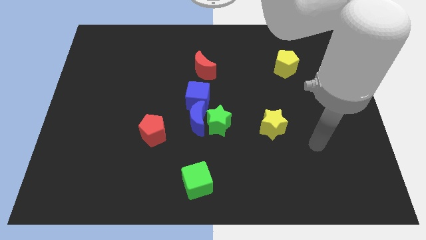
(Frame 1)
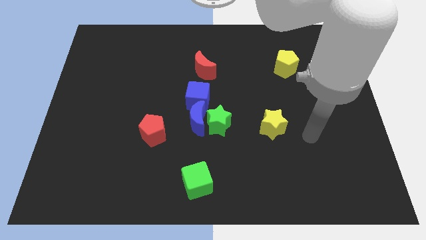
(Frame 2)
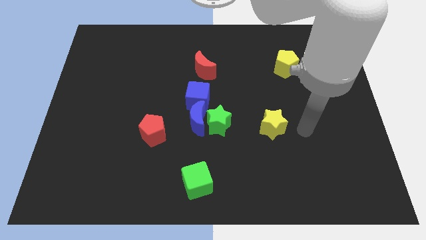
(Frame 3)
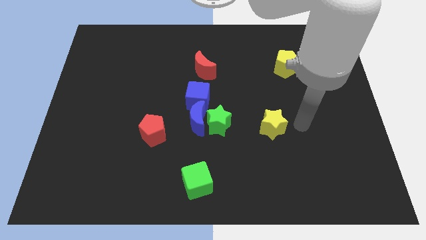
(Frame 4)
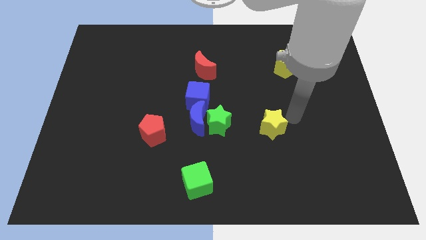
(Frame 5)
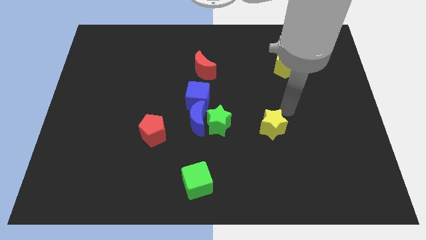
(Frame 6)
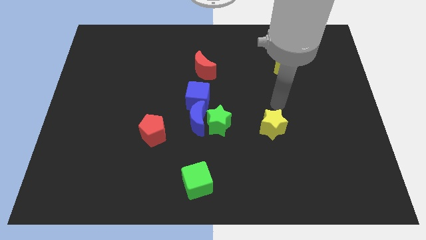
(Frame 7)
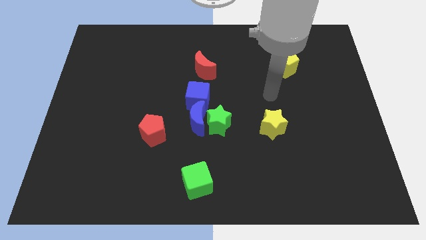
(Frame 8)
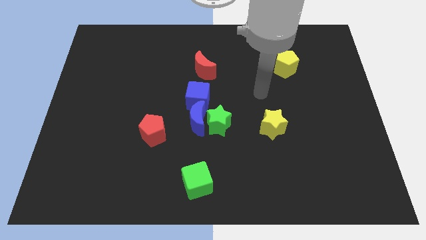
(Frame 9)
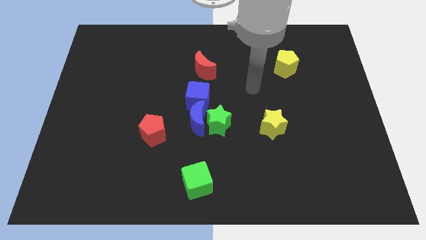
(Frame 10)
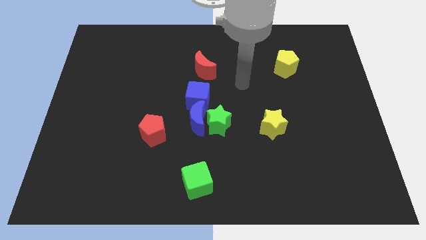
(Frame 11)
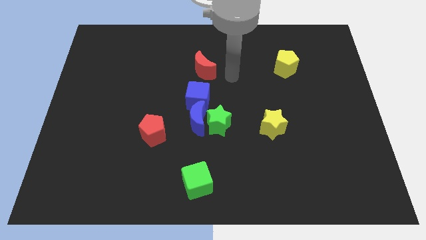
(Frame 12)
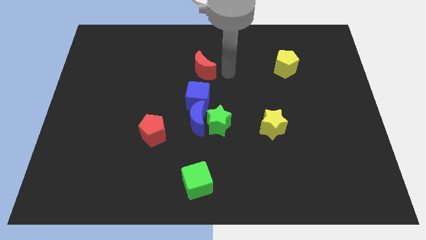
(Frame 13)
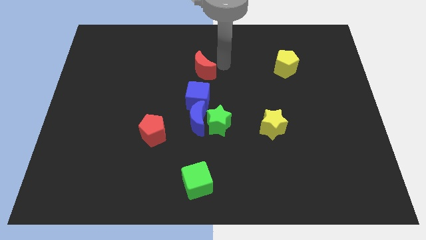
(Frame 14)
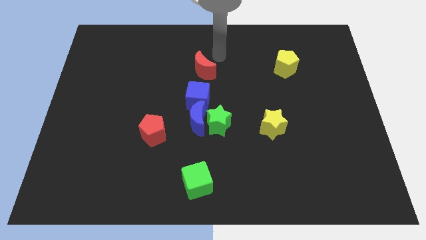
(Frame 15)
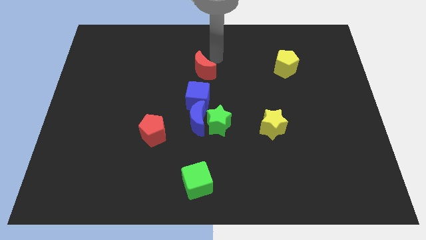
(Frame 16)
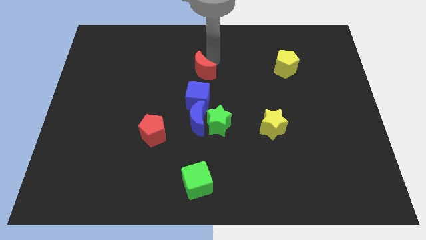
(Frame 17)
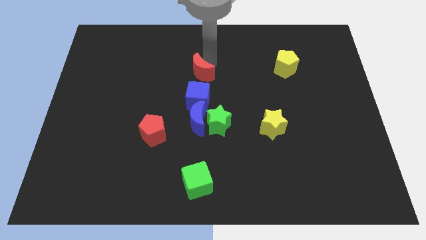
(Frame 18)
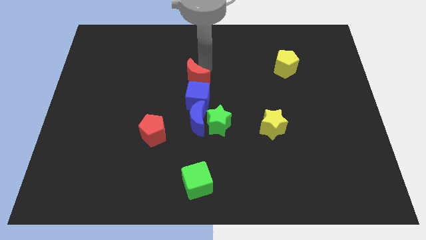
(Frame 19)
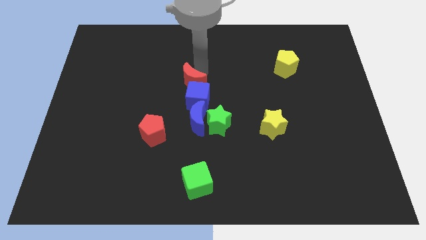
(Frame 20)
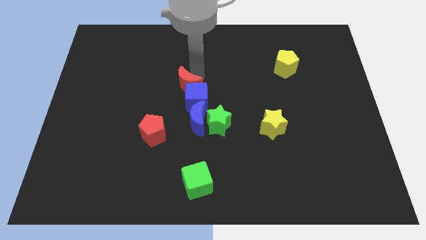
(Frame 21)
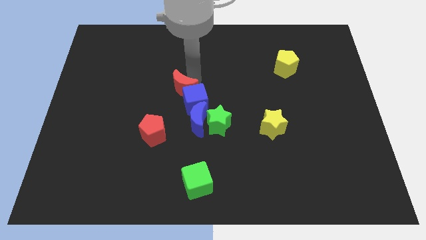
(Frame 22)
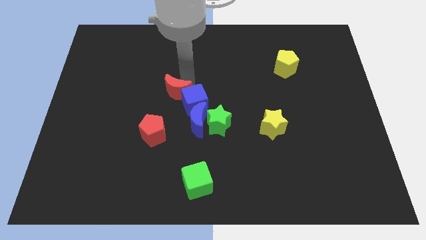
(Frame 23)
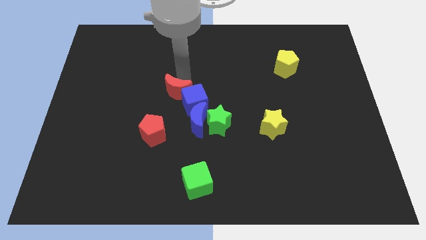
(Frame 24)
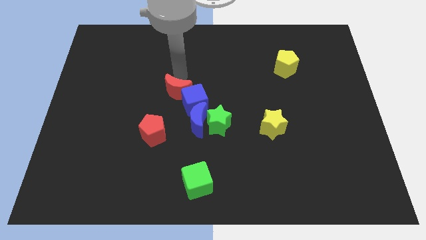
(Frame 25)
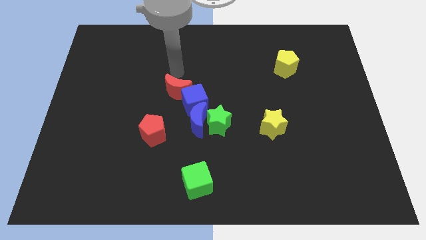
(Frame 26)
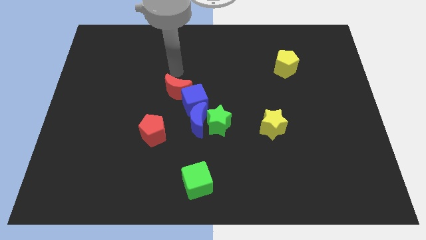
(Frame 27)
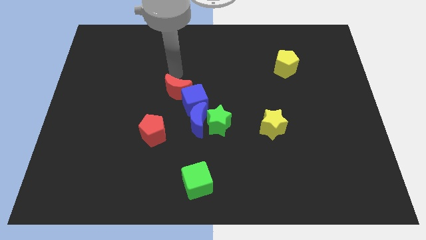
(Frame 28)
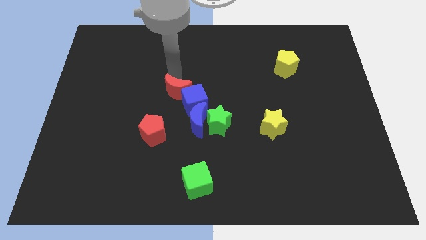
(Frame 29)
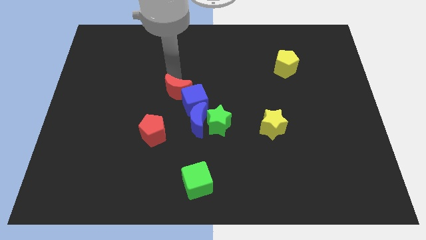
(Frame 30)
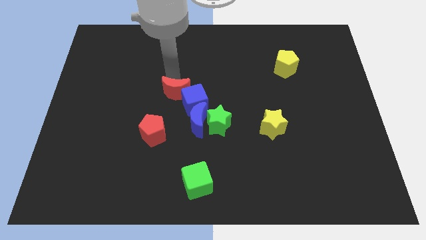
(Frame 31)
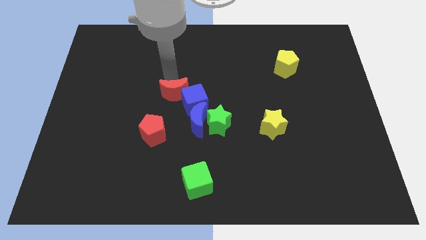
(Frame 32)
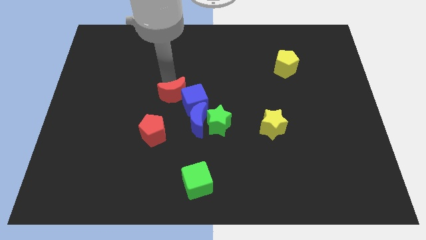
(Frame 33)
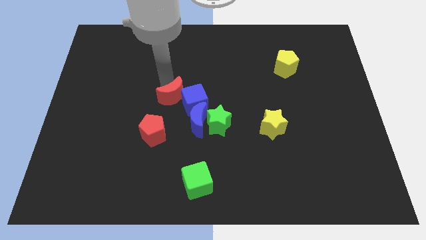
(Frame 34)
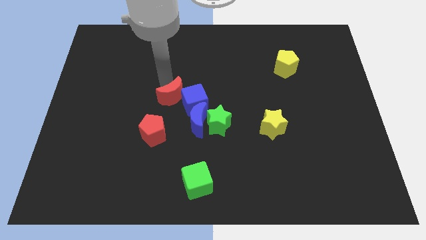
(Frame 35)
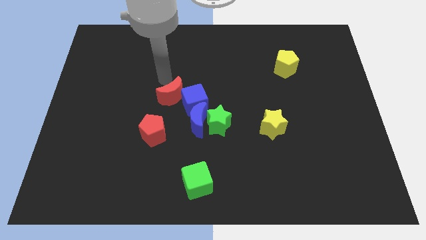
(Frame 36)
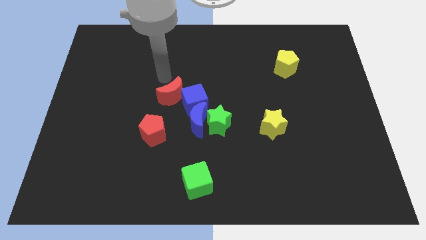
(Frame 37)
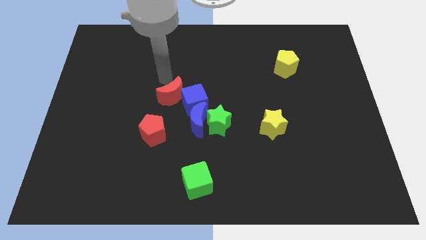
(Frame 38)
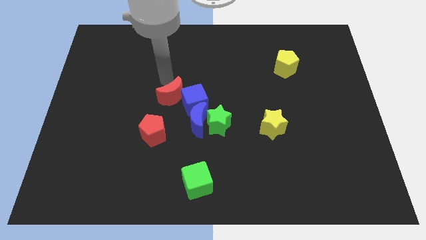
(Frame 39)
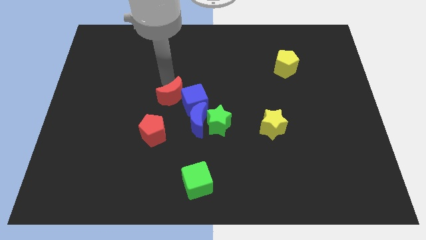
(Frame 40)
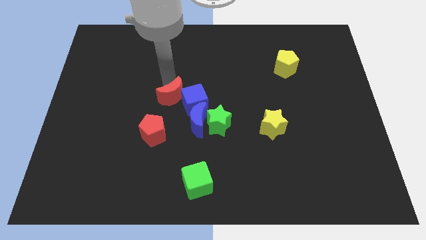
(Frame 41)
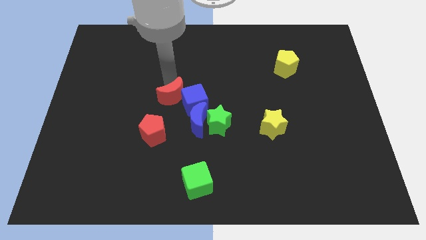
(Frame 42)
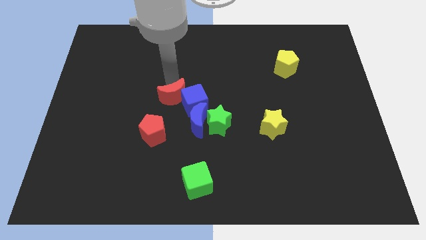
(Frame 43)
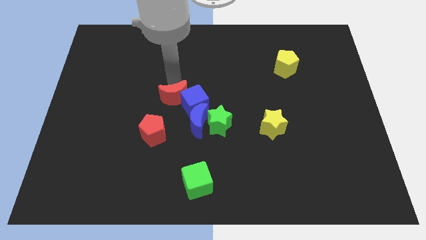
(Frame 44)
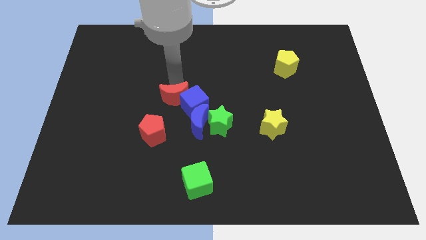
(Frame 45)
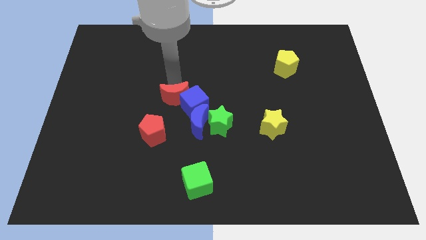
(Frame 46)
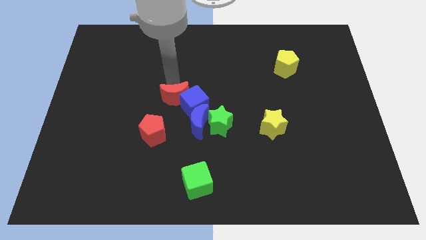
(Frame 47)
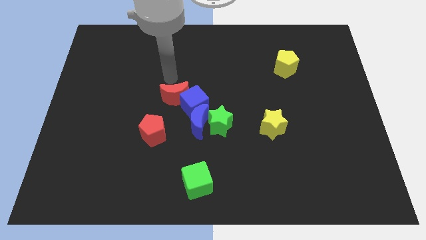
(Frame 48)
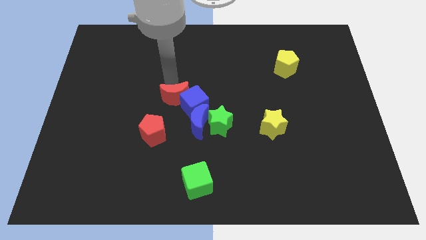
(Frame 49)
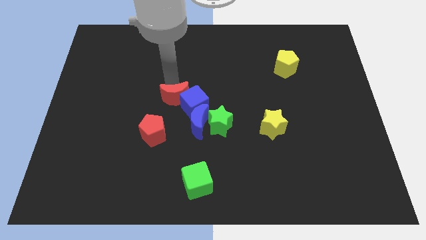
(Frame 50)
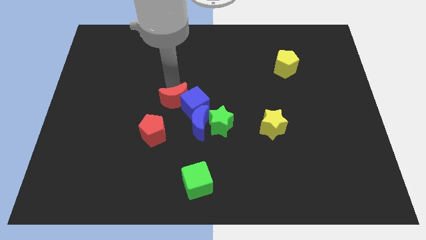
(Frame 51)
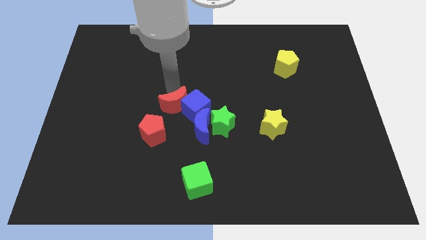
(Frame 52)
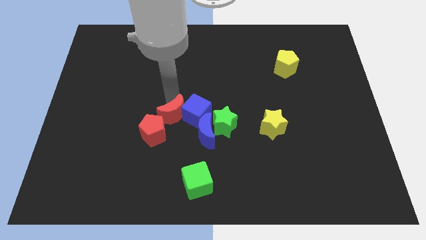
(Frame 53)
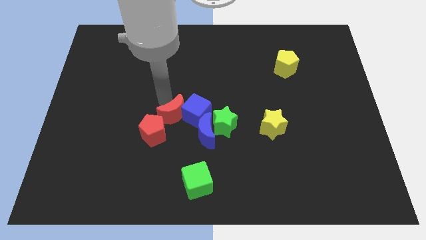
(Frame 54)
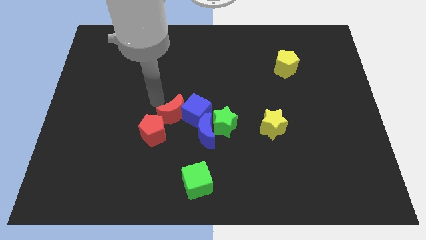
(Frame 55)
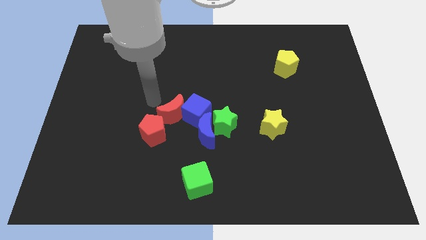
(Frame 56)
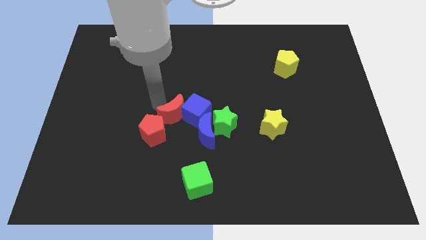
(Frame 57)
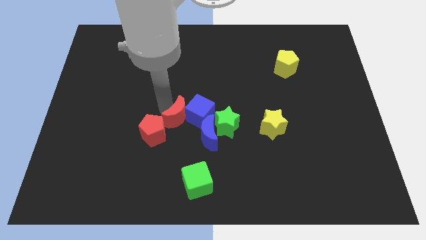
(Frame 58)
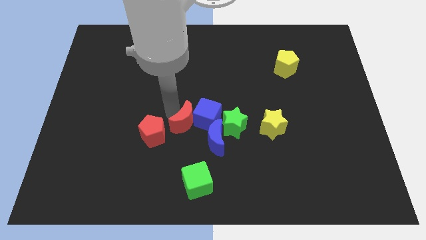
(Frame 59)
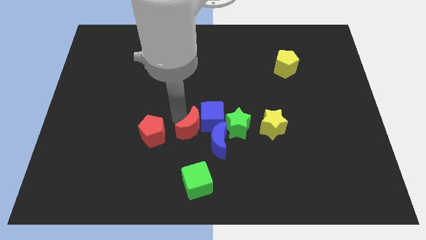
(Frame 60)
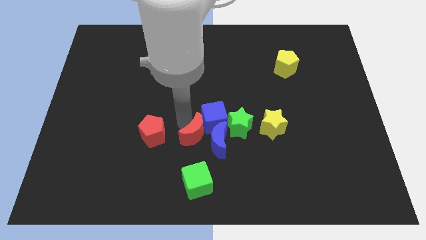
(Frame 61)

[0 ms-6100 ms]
push the red moon to the blue moon

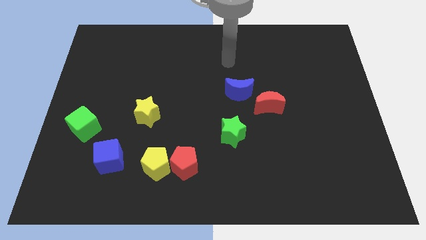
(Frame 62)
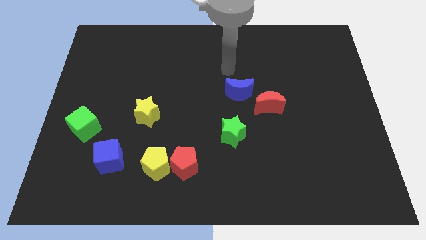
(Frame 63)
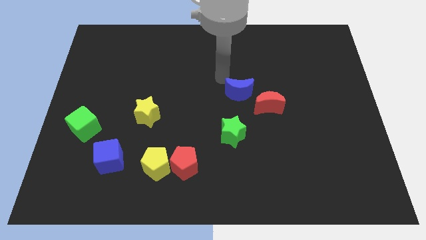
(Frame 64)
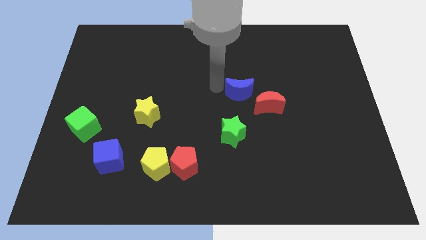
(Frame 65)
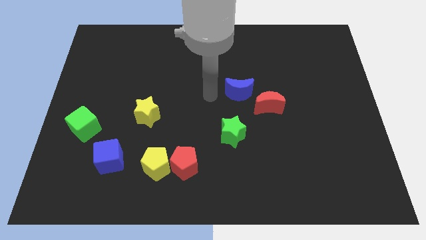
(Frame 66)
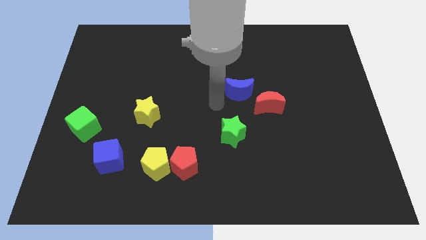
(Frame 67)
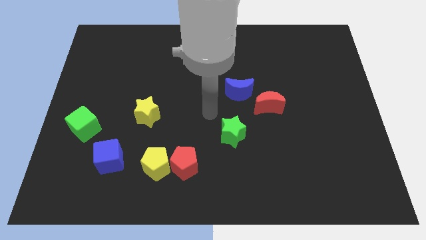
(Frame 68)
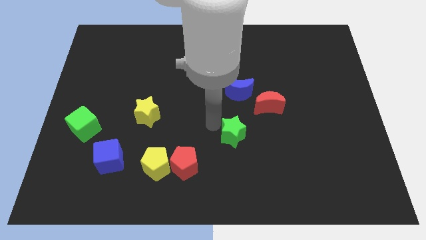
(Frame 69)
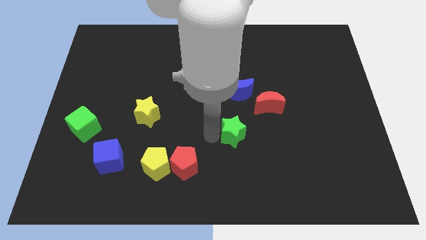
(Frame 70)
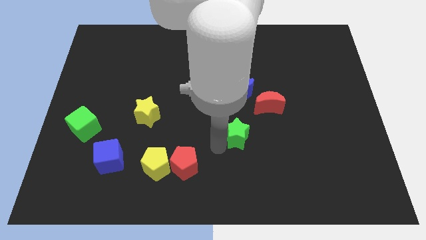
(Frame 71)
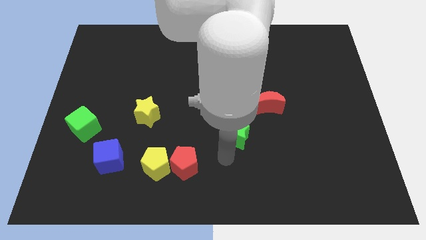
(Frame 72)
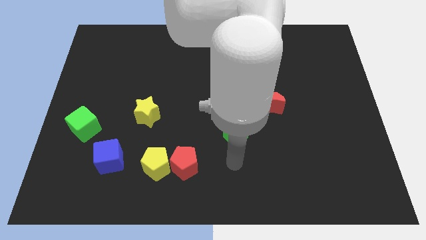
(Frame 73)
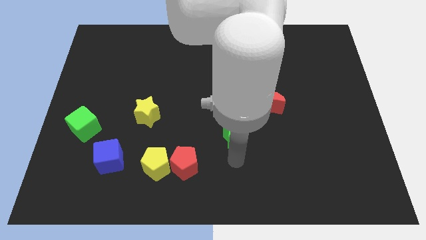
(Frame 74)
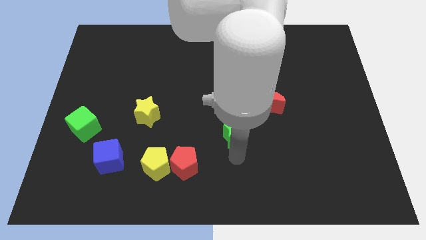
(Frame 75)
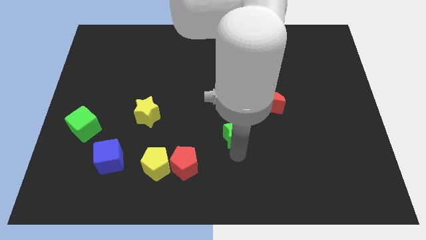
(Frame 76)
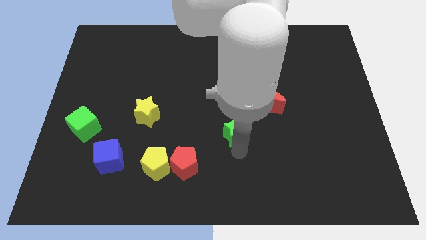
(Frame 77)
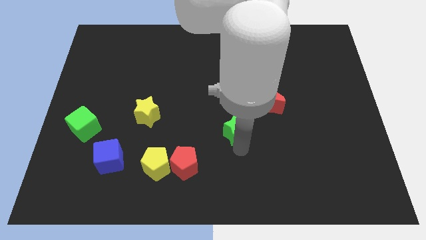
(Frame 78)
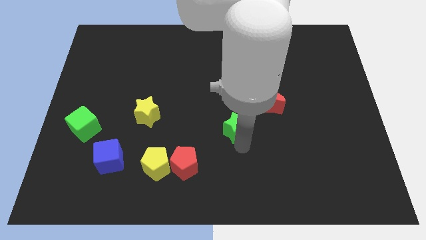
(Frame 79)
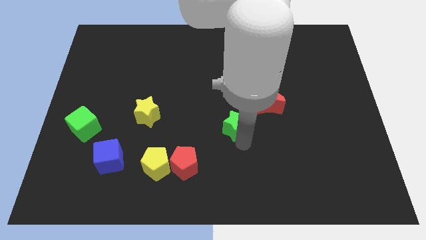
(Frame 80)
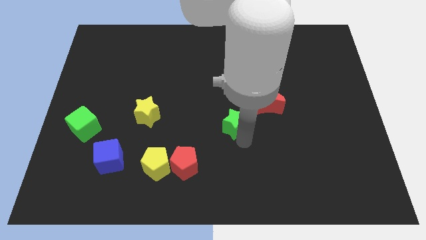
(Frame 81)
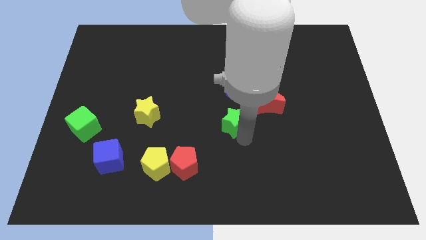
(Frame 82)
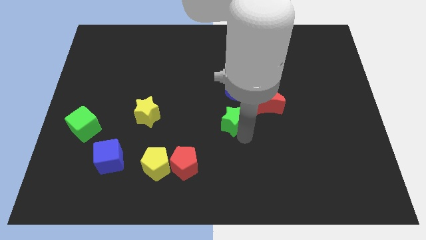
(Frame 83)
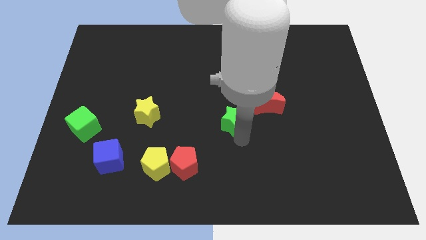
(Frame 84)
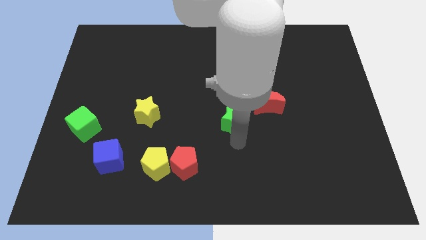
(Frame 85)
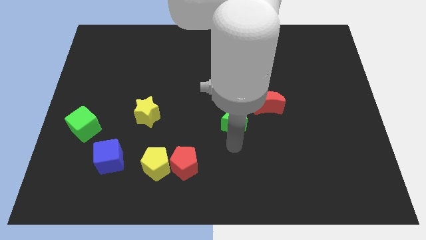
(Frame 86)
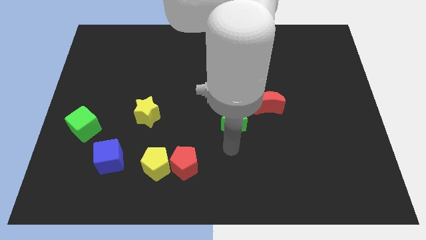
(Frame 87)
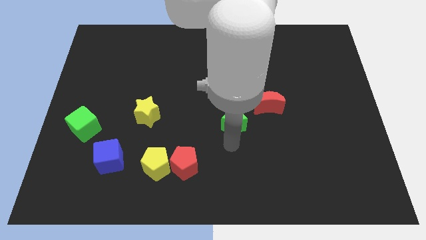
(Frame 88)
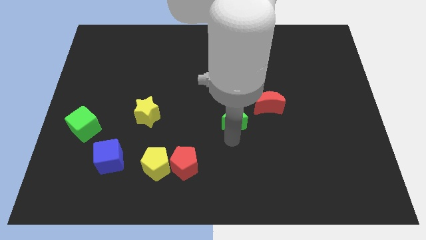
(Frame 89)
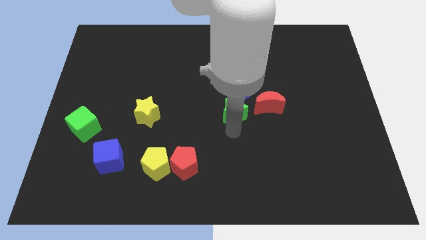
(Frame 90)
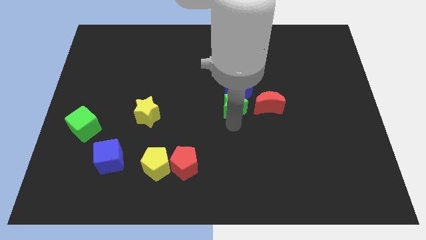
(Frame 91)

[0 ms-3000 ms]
push the green star towards the blue moon
